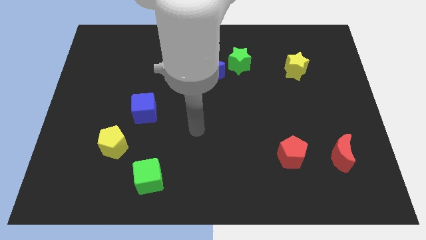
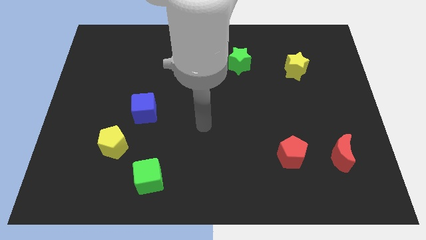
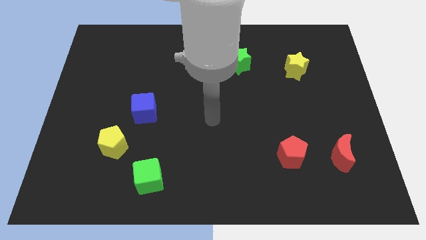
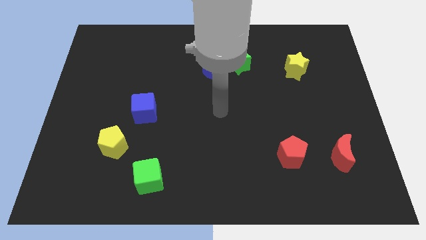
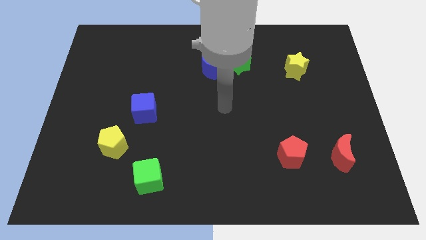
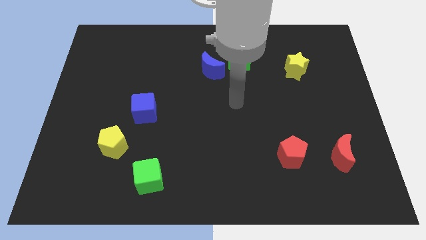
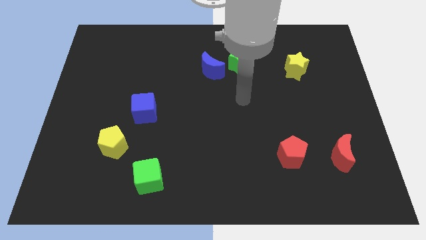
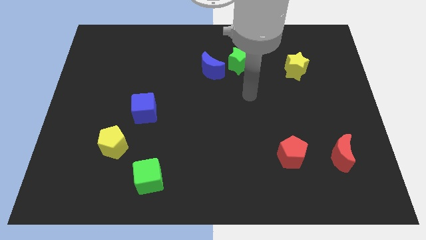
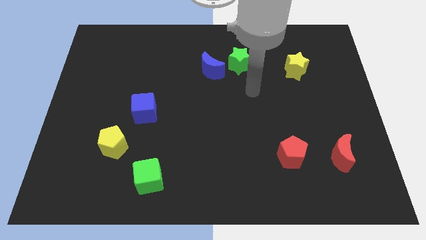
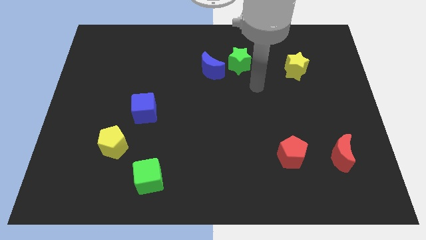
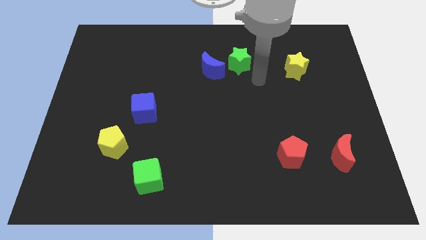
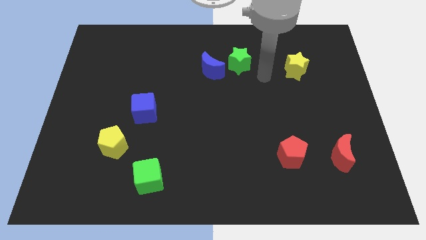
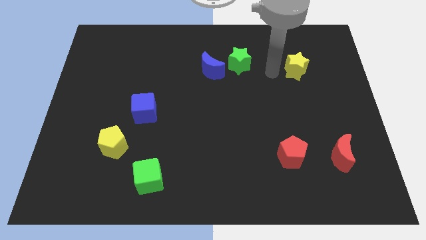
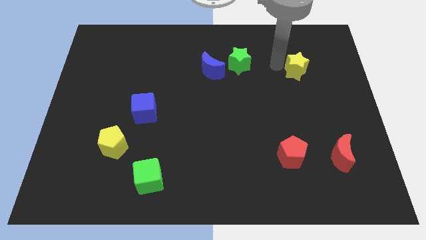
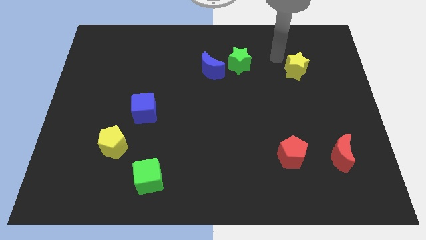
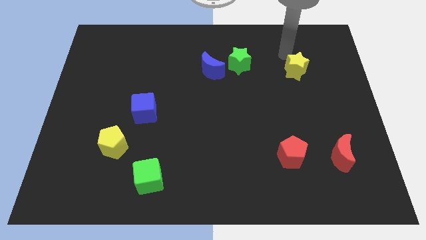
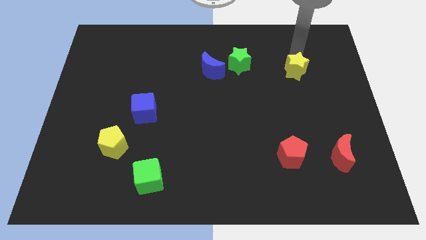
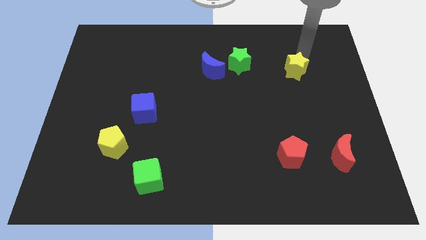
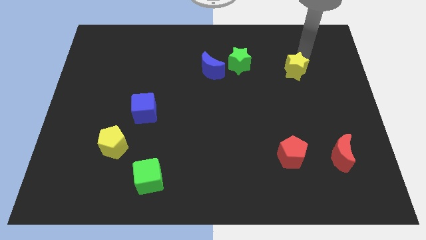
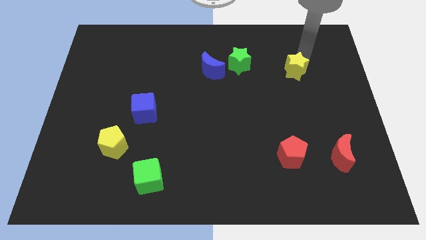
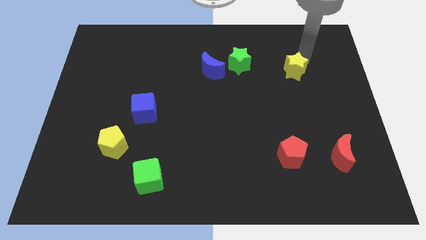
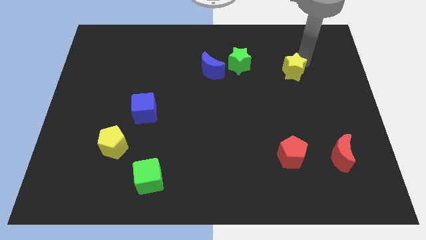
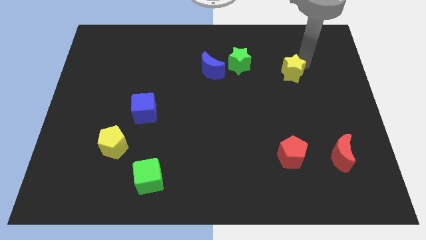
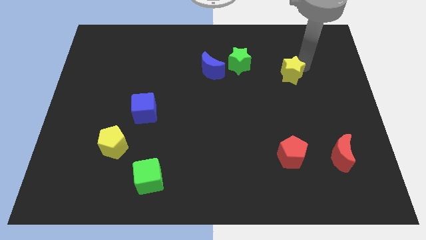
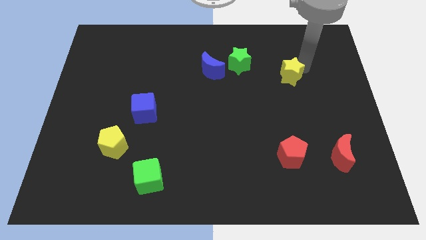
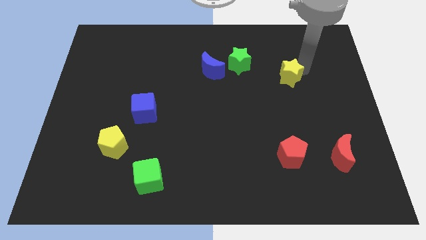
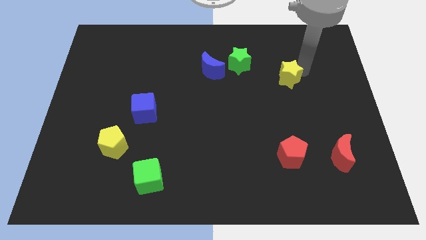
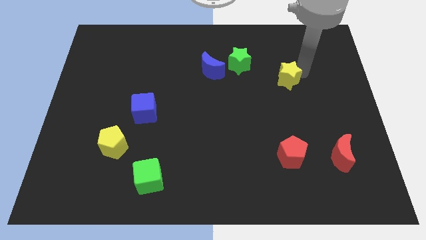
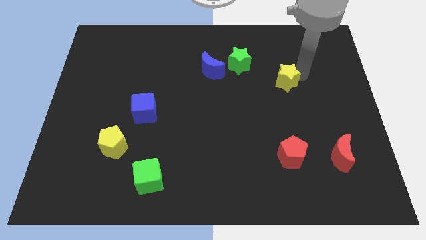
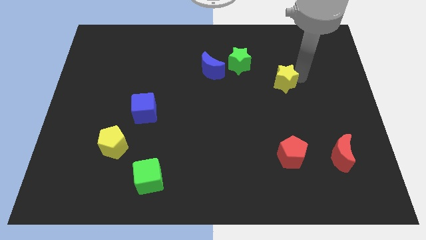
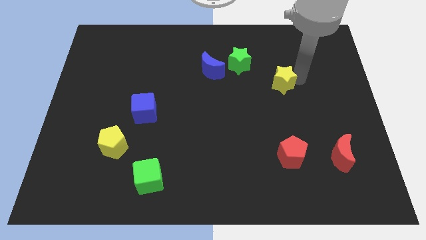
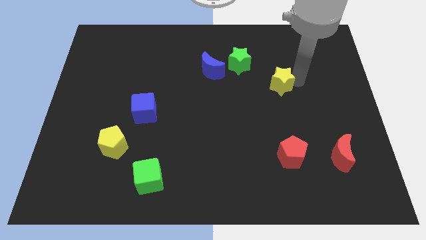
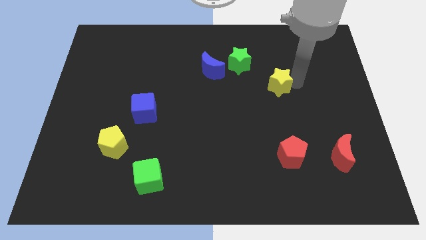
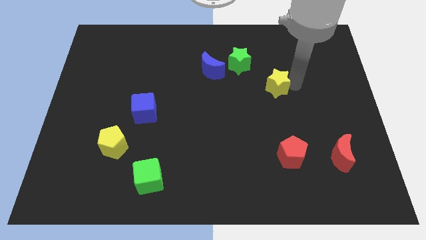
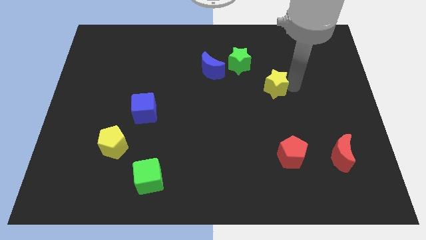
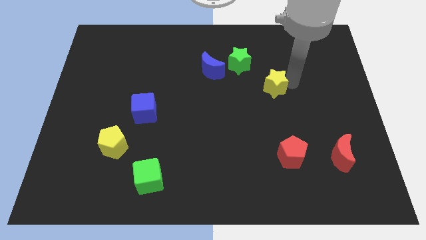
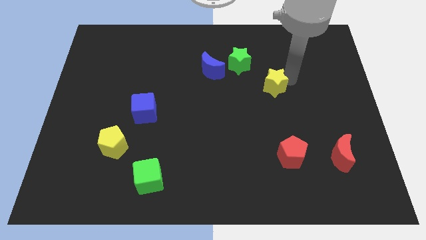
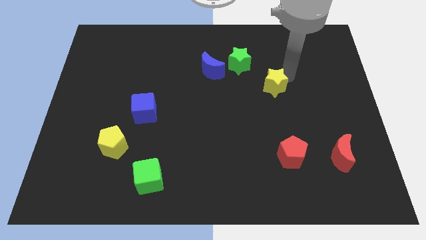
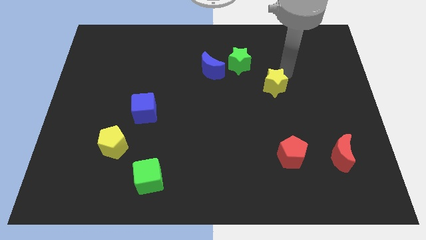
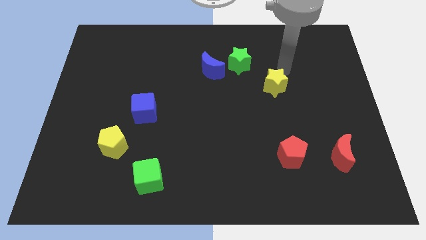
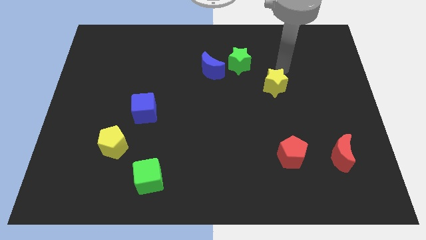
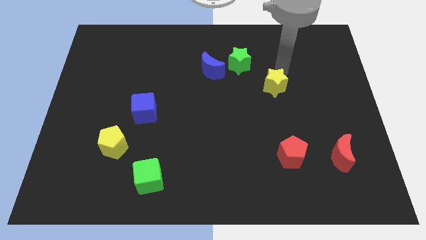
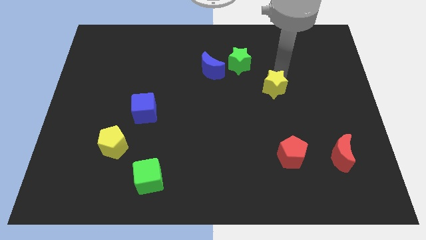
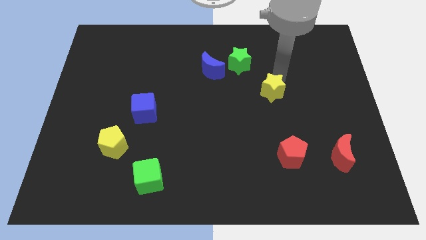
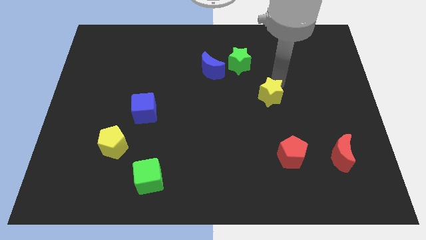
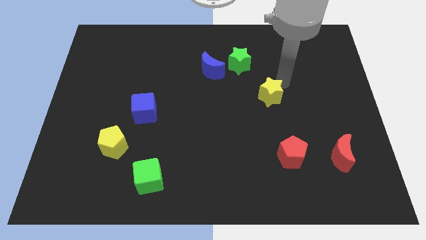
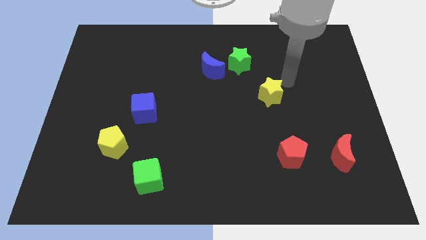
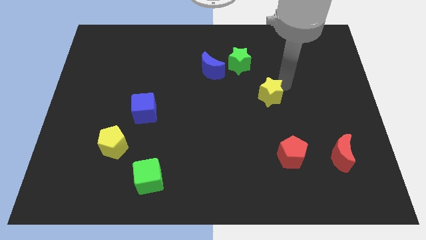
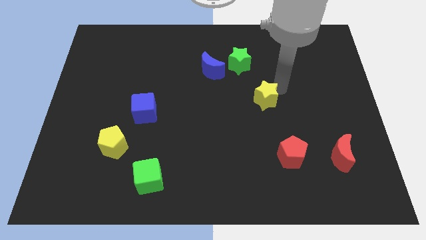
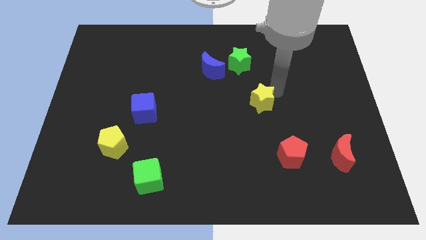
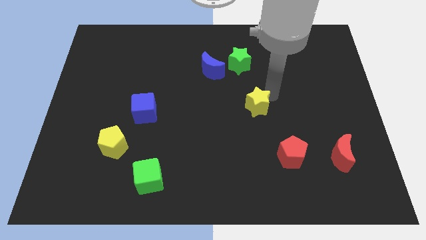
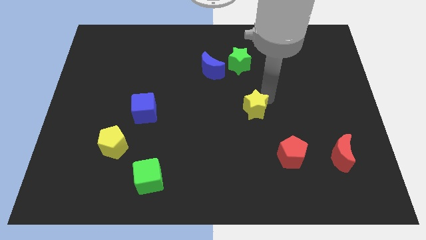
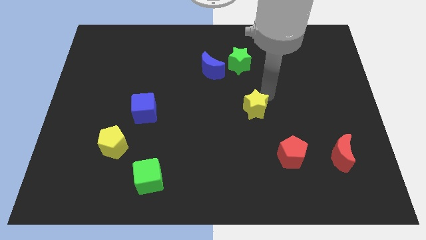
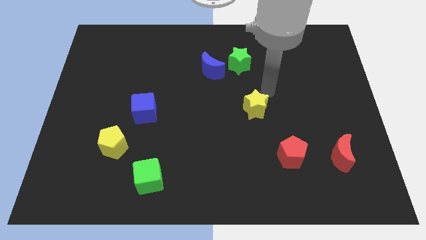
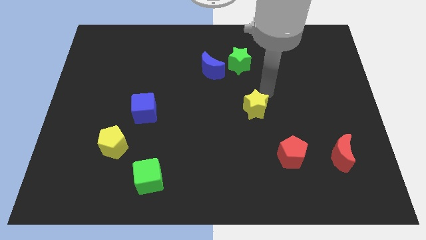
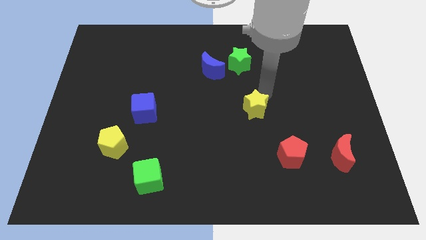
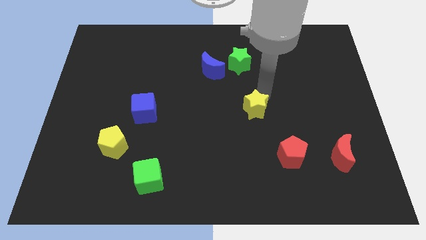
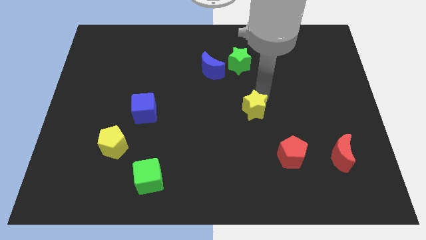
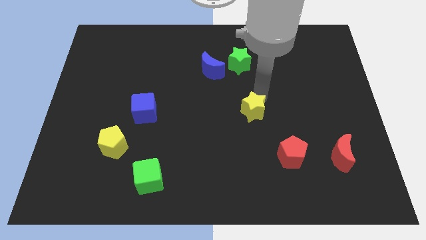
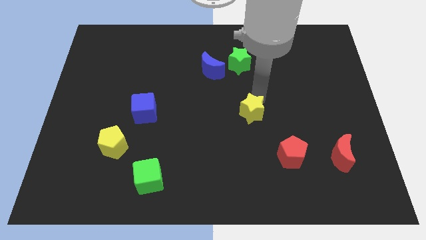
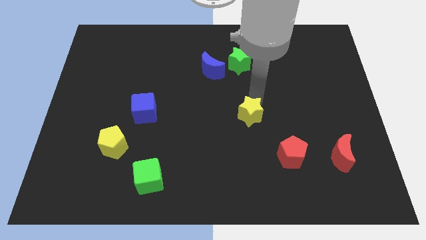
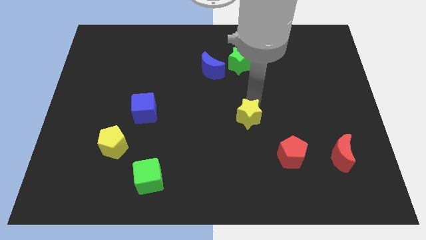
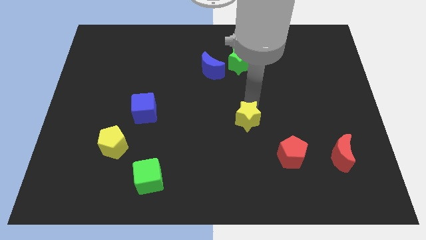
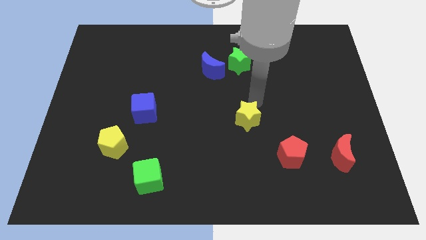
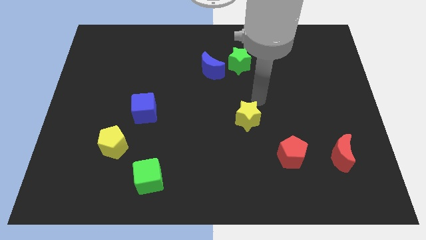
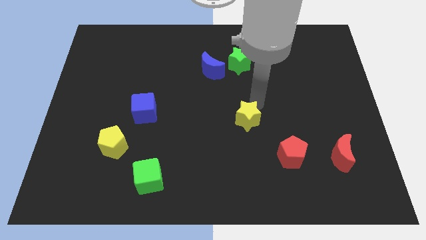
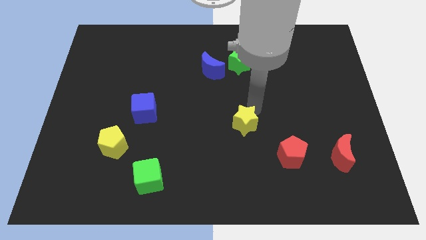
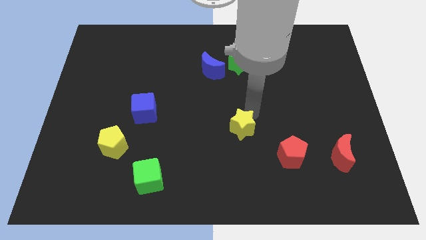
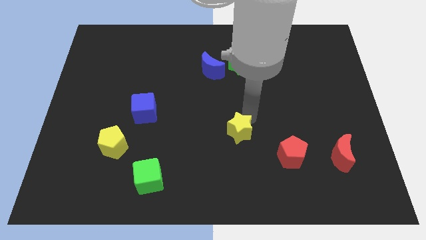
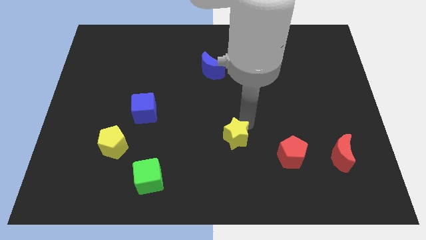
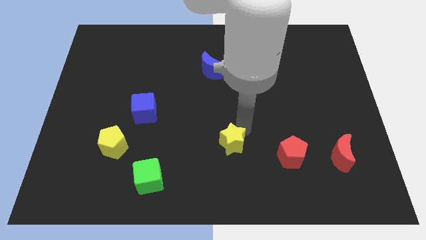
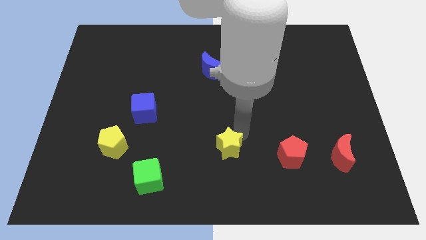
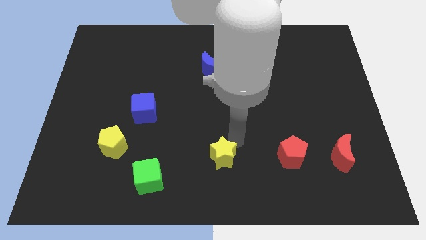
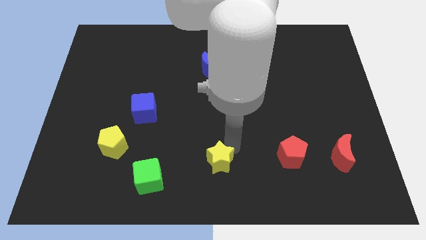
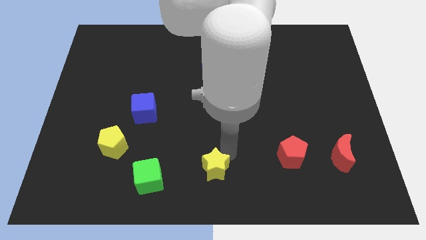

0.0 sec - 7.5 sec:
move the yellow star right of the green cube
